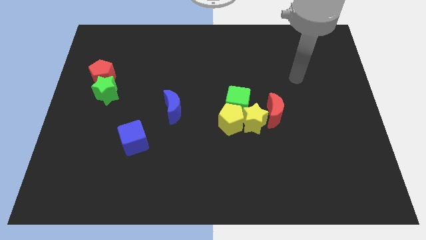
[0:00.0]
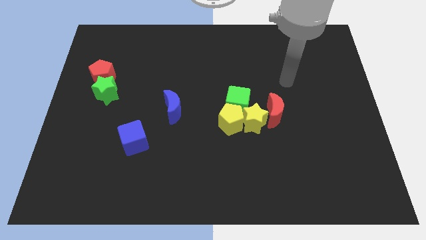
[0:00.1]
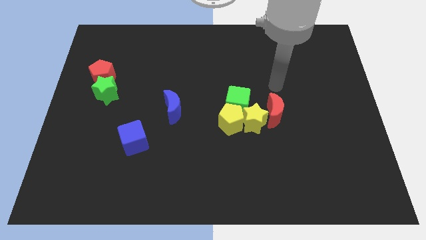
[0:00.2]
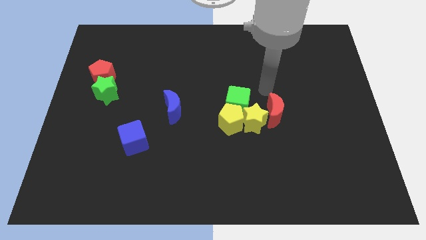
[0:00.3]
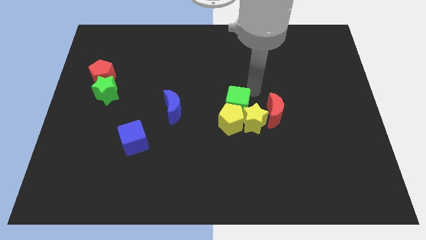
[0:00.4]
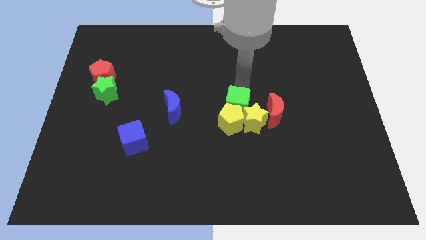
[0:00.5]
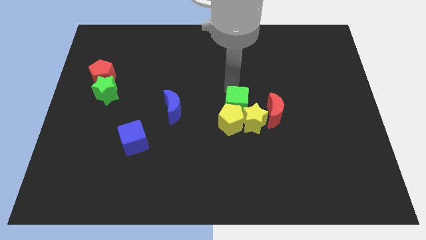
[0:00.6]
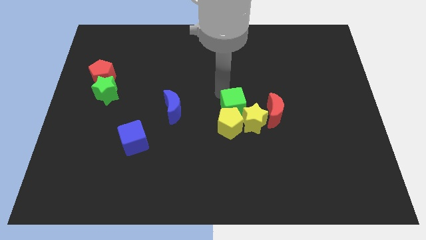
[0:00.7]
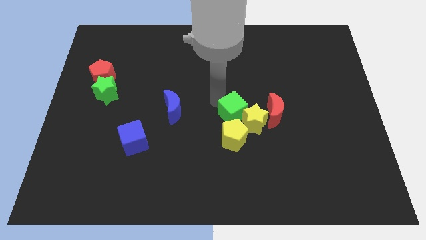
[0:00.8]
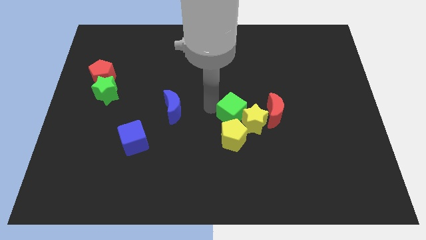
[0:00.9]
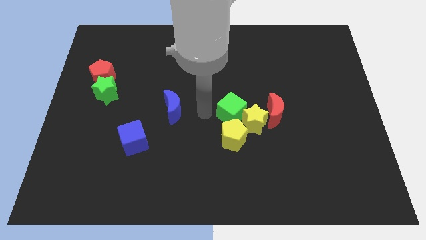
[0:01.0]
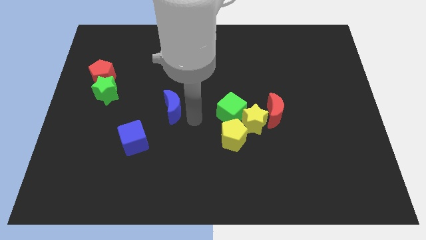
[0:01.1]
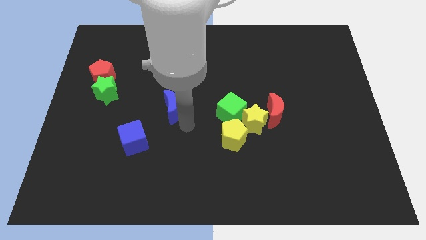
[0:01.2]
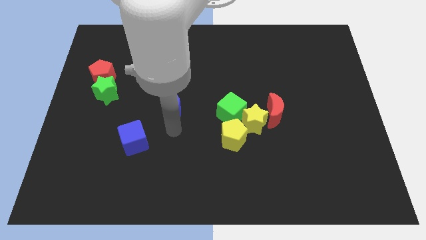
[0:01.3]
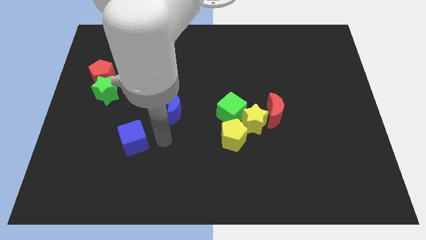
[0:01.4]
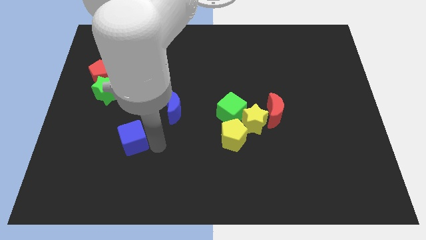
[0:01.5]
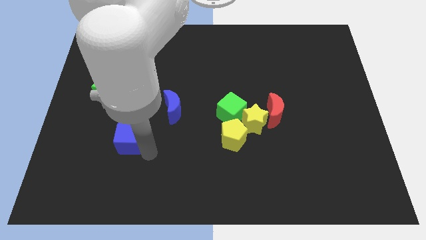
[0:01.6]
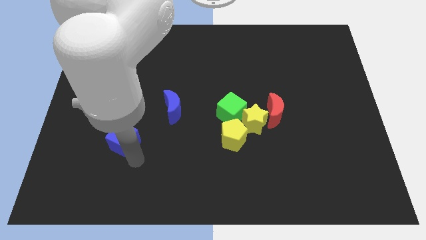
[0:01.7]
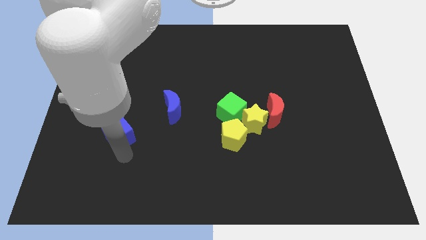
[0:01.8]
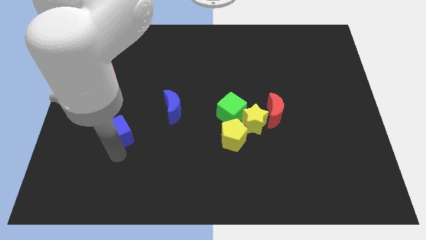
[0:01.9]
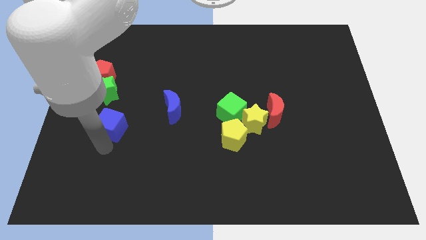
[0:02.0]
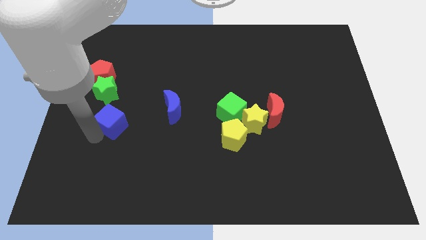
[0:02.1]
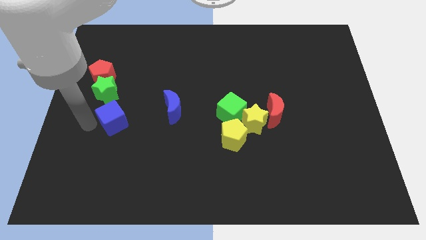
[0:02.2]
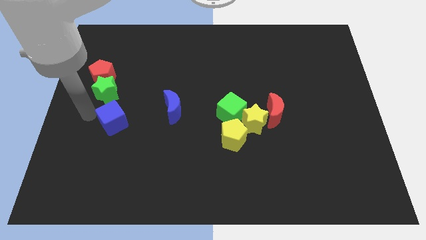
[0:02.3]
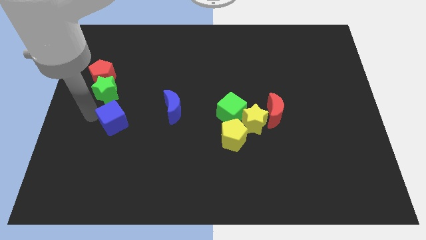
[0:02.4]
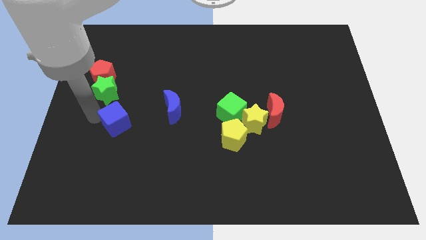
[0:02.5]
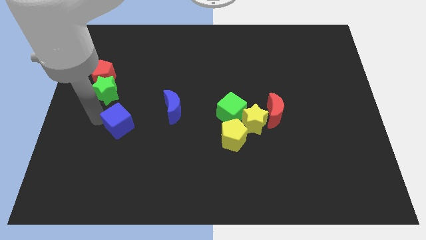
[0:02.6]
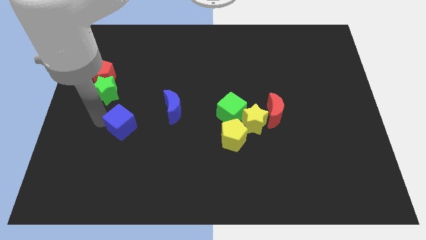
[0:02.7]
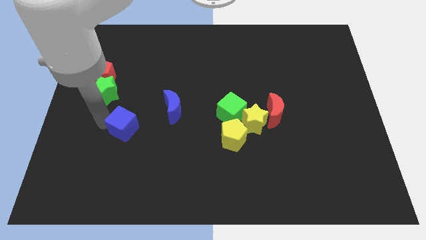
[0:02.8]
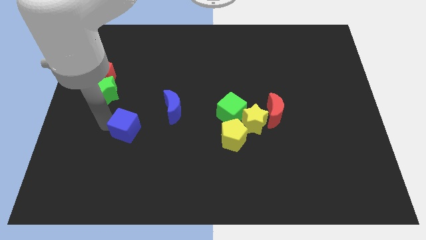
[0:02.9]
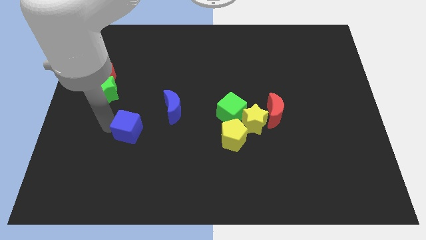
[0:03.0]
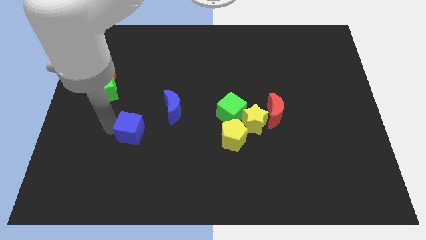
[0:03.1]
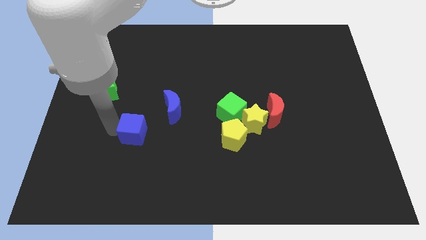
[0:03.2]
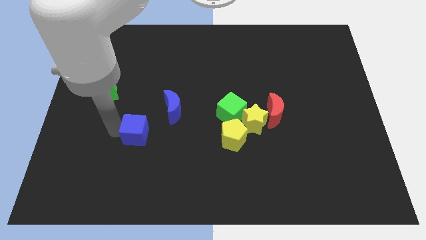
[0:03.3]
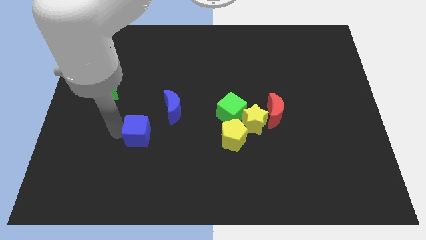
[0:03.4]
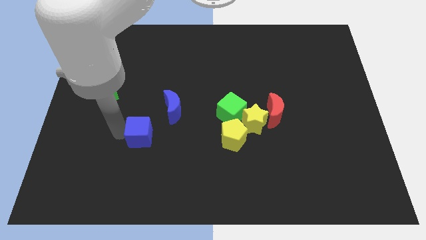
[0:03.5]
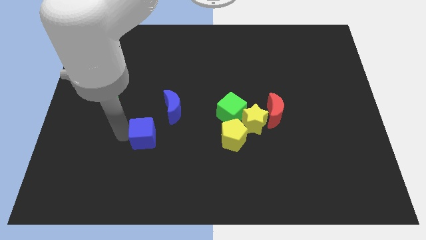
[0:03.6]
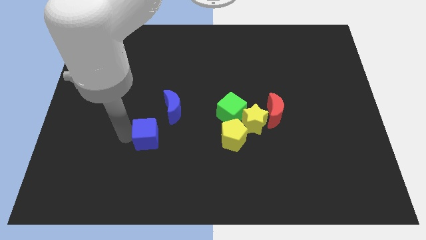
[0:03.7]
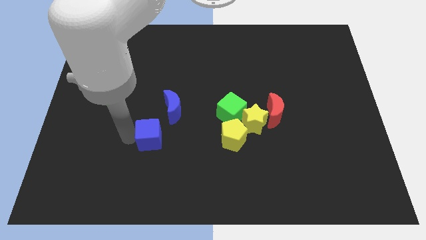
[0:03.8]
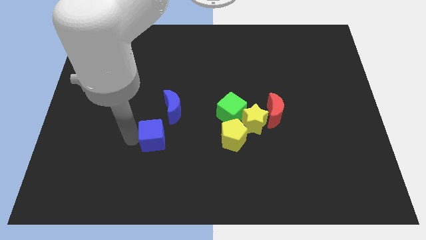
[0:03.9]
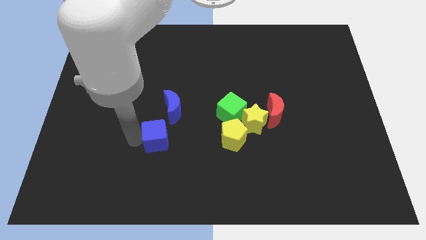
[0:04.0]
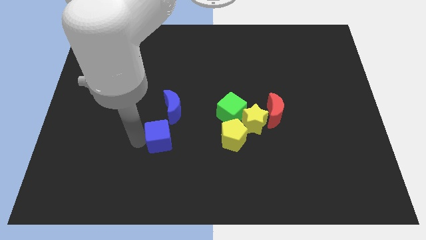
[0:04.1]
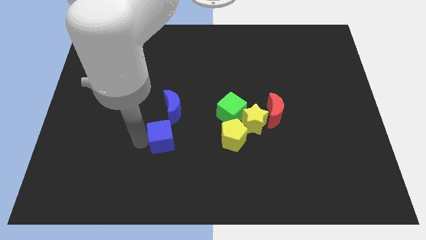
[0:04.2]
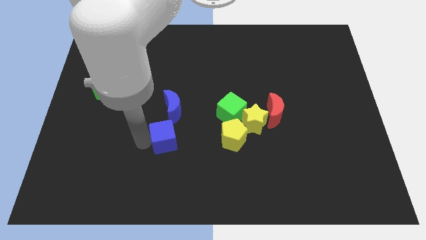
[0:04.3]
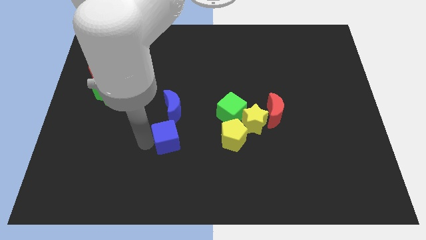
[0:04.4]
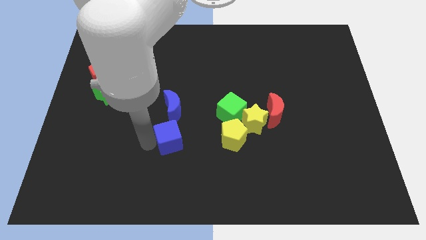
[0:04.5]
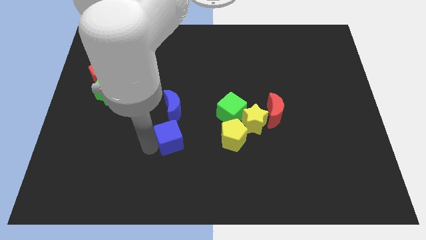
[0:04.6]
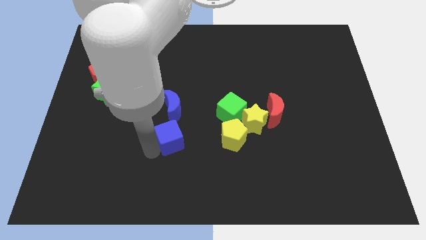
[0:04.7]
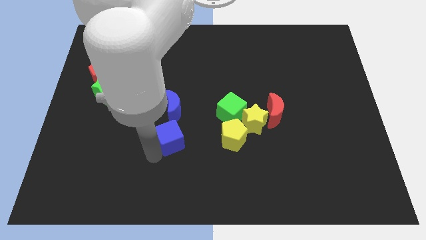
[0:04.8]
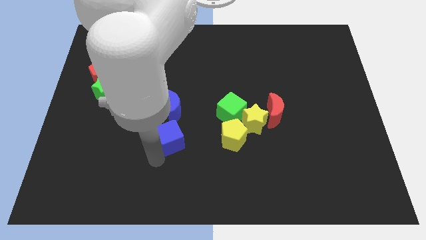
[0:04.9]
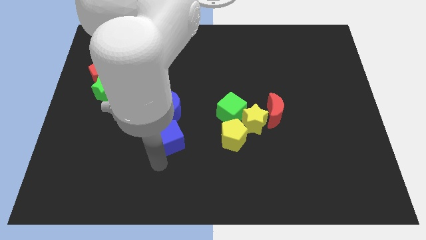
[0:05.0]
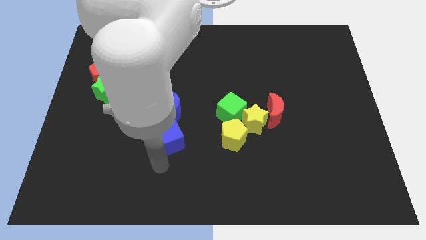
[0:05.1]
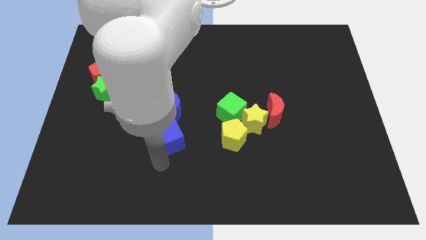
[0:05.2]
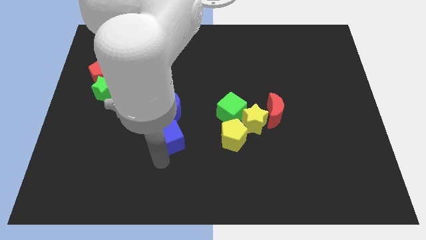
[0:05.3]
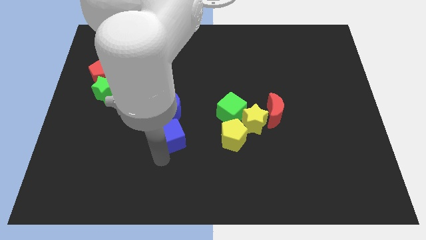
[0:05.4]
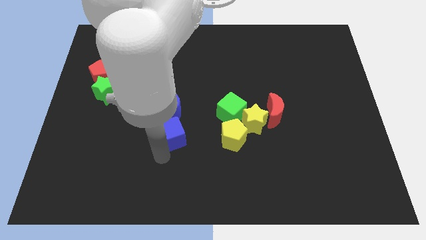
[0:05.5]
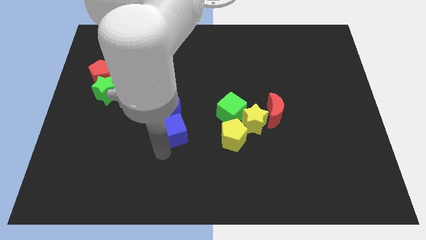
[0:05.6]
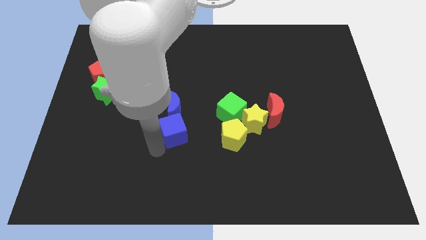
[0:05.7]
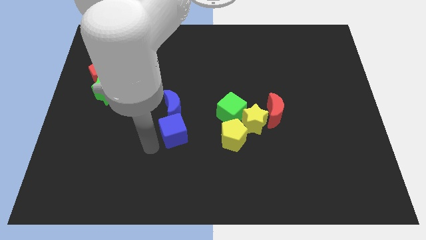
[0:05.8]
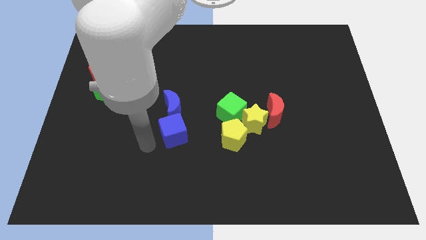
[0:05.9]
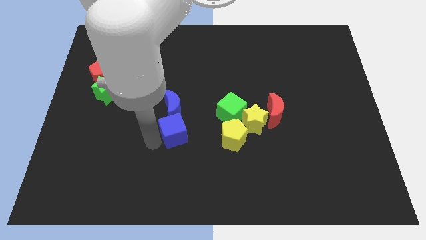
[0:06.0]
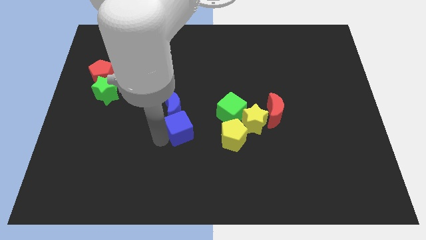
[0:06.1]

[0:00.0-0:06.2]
move the blue cube to the center of the board

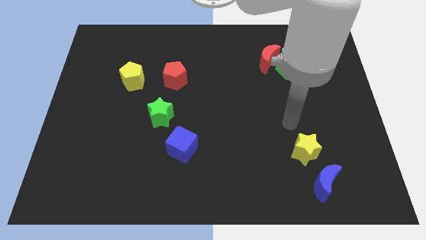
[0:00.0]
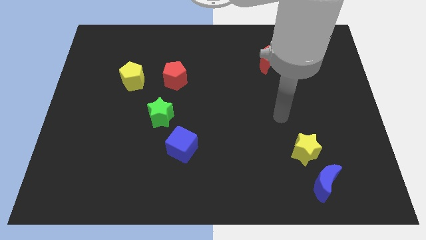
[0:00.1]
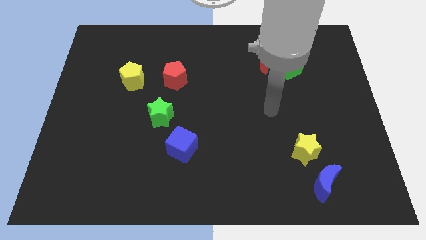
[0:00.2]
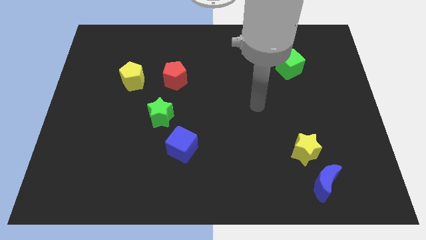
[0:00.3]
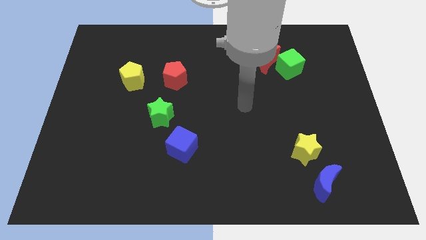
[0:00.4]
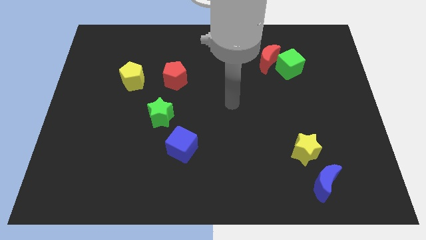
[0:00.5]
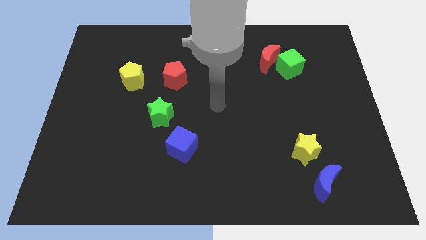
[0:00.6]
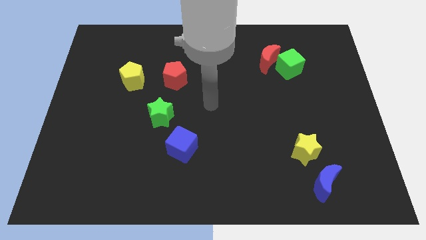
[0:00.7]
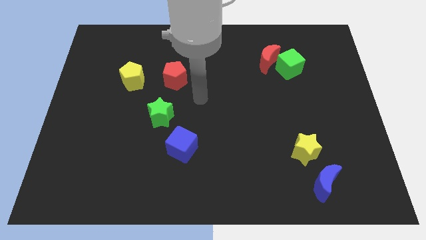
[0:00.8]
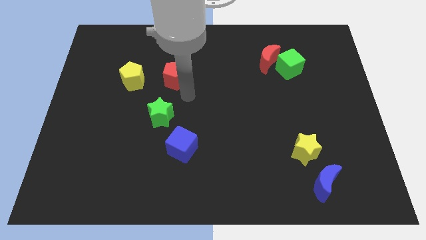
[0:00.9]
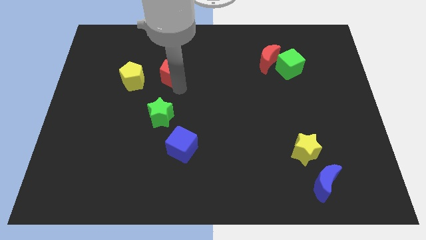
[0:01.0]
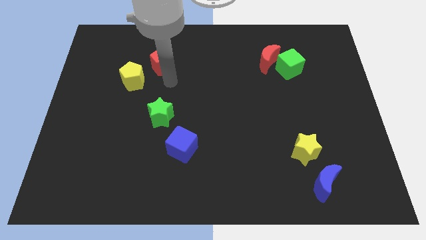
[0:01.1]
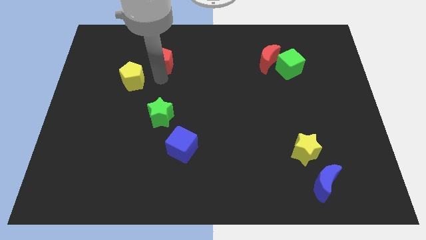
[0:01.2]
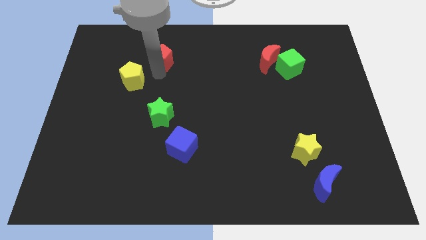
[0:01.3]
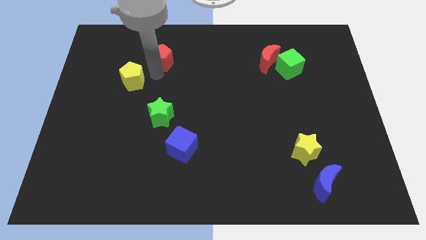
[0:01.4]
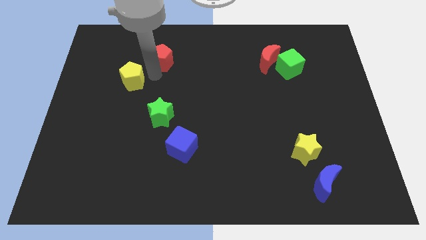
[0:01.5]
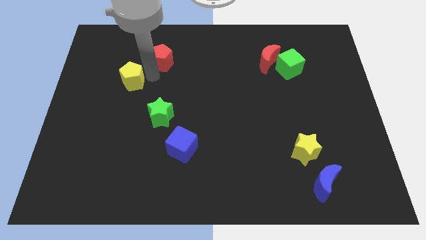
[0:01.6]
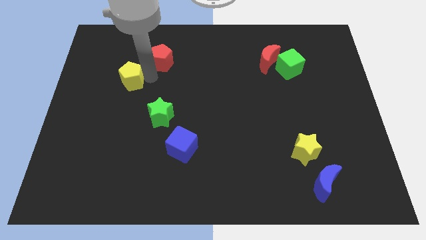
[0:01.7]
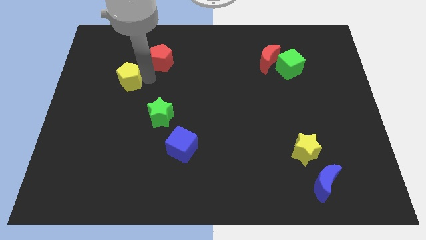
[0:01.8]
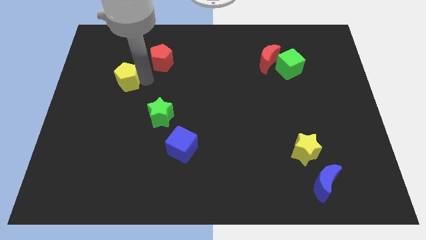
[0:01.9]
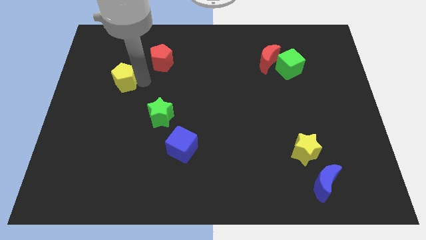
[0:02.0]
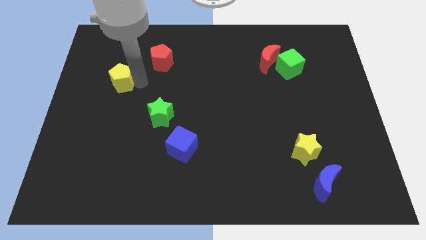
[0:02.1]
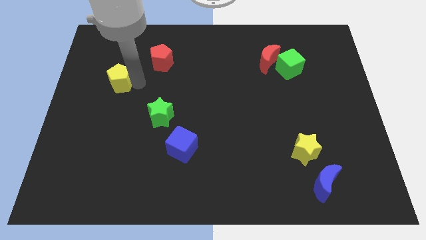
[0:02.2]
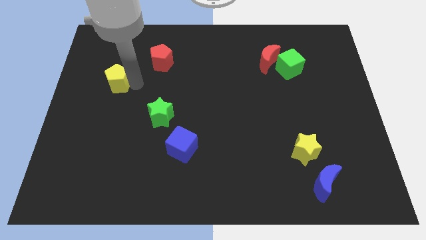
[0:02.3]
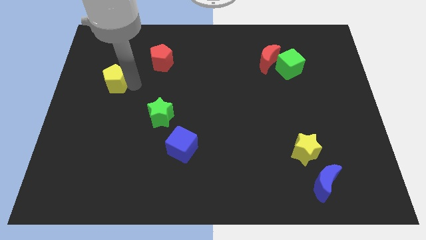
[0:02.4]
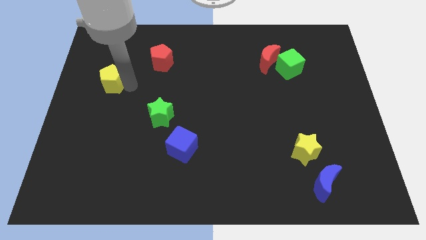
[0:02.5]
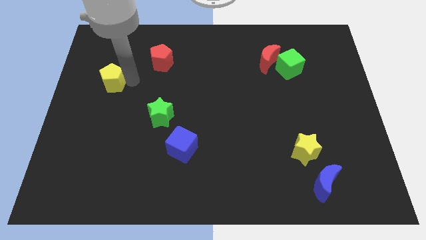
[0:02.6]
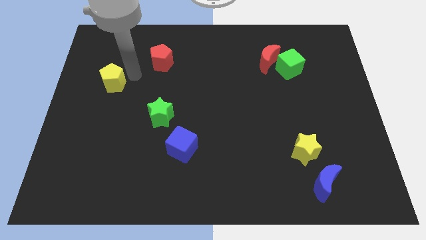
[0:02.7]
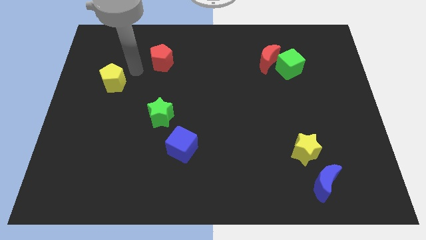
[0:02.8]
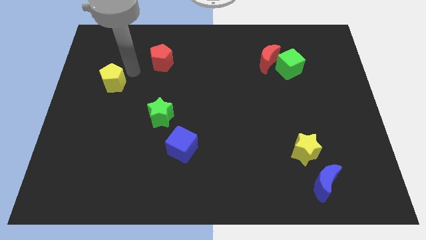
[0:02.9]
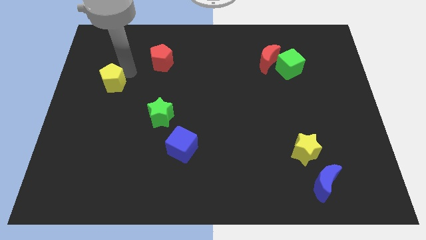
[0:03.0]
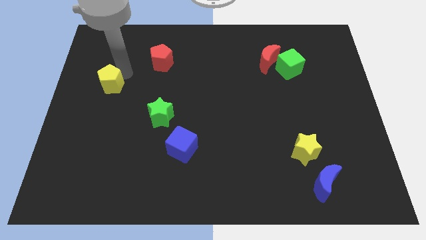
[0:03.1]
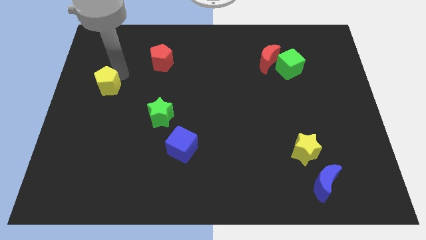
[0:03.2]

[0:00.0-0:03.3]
push the yellow pentagon to the left side
